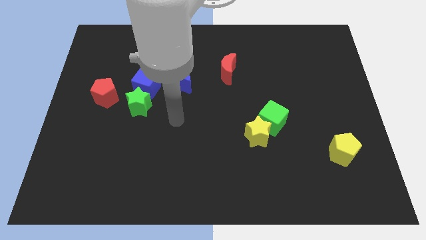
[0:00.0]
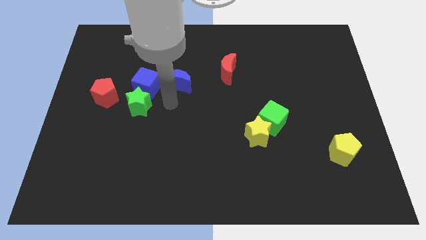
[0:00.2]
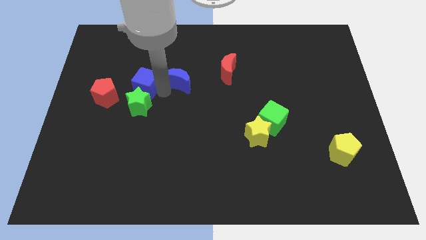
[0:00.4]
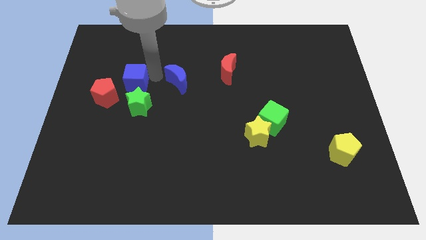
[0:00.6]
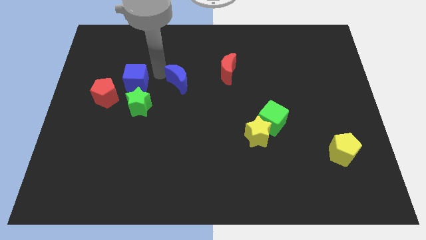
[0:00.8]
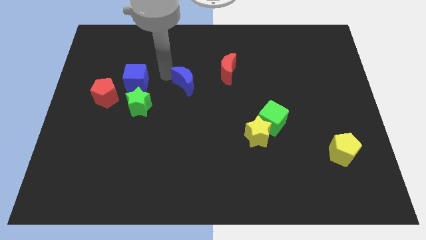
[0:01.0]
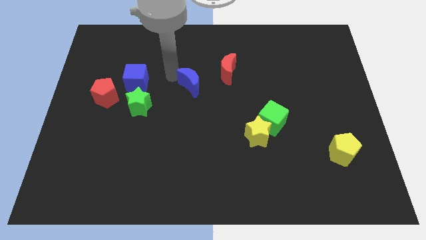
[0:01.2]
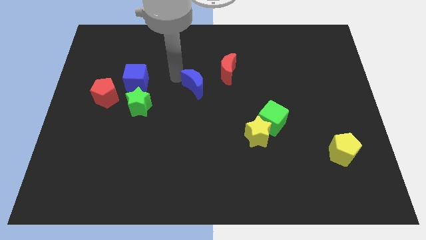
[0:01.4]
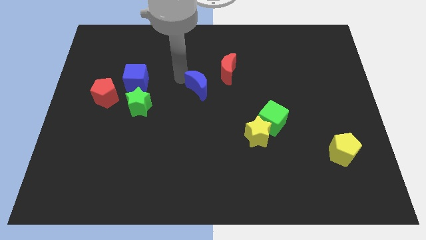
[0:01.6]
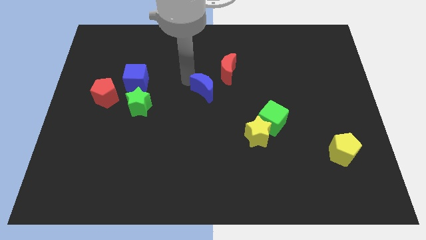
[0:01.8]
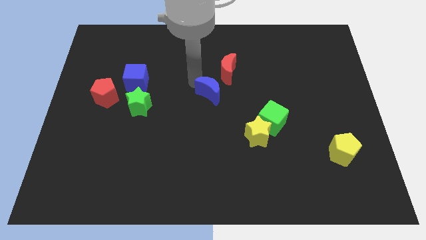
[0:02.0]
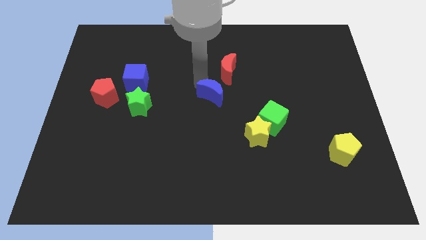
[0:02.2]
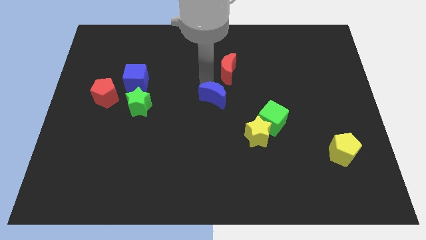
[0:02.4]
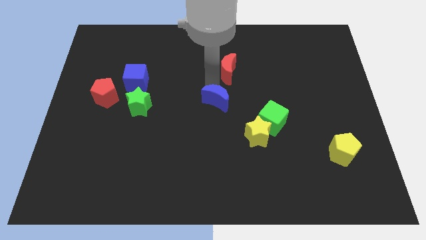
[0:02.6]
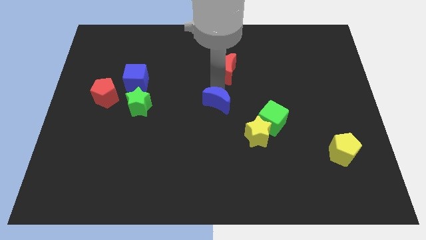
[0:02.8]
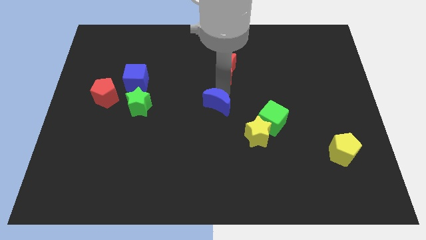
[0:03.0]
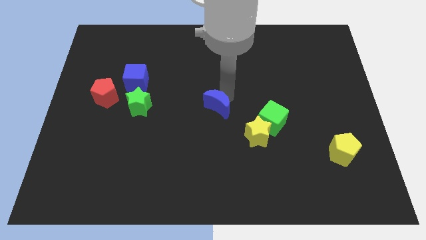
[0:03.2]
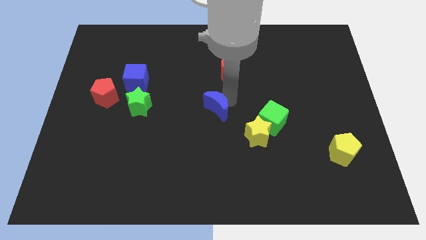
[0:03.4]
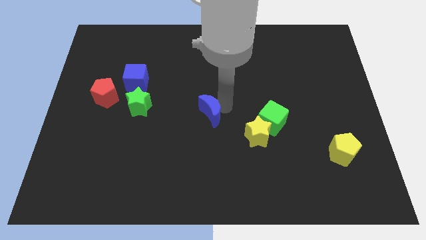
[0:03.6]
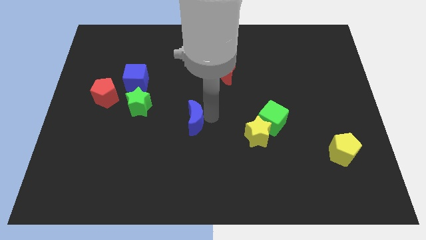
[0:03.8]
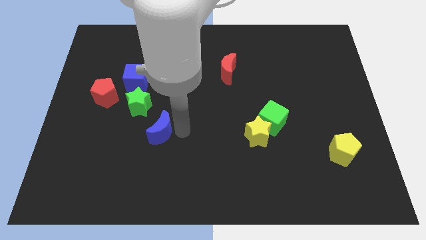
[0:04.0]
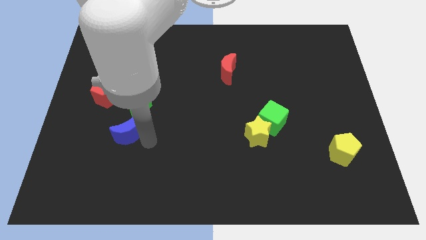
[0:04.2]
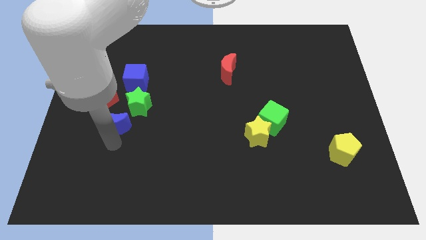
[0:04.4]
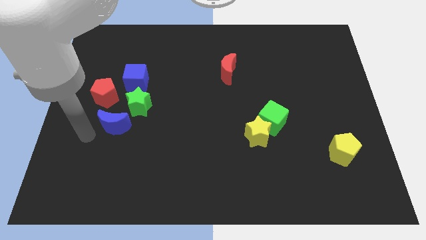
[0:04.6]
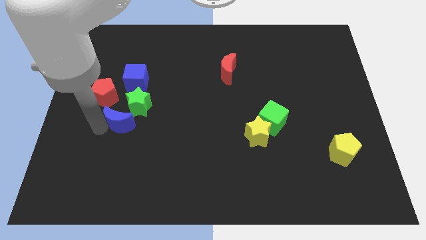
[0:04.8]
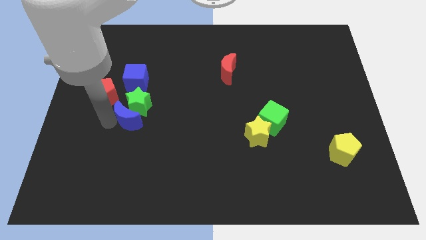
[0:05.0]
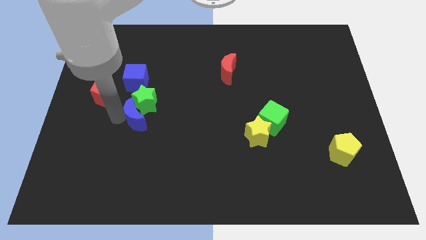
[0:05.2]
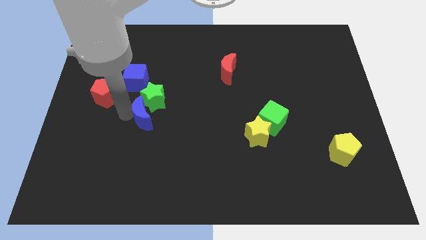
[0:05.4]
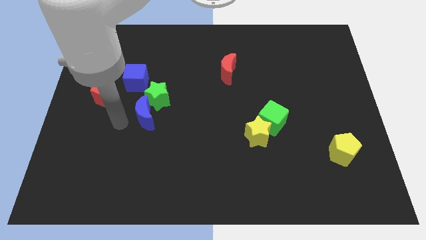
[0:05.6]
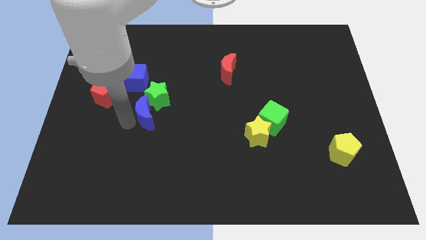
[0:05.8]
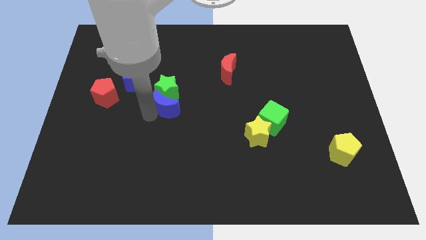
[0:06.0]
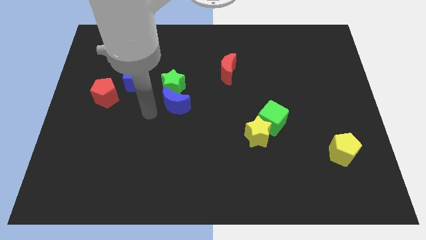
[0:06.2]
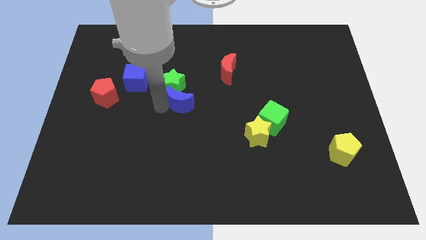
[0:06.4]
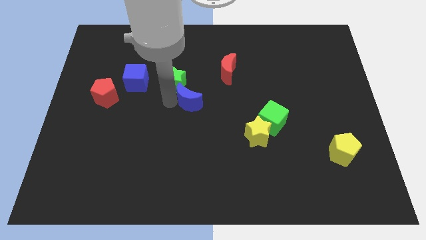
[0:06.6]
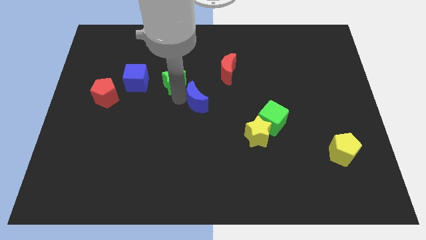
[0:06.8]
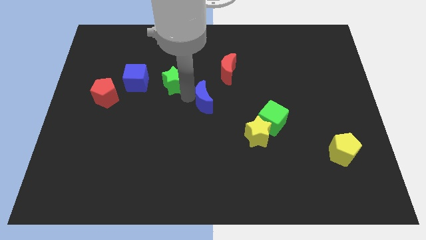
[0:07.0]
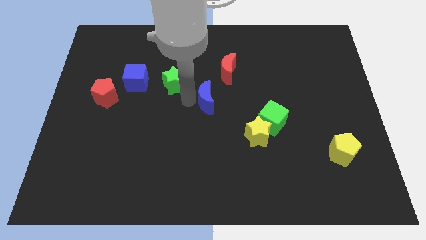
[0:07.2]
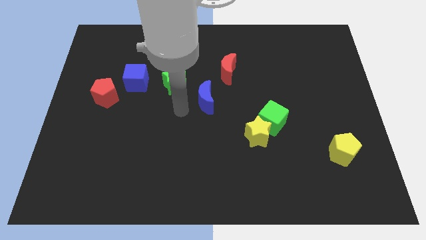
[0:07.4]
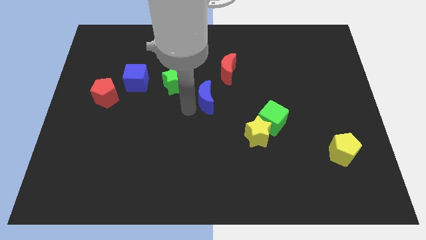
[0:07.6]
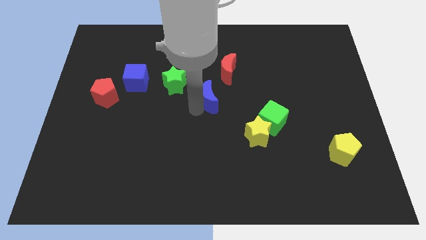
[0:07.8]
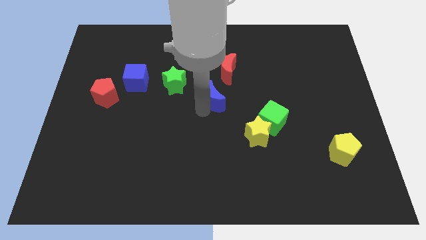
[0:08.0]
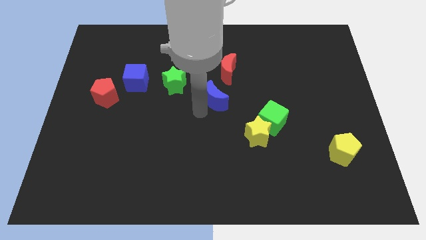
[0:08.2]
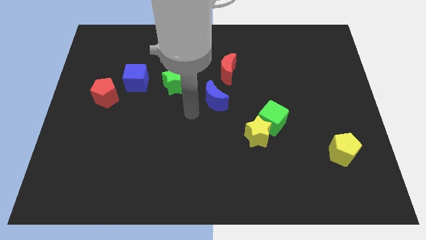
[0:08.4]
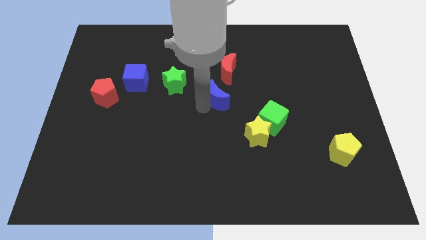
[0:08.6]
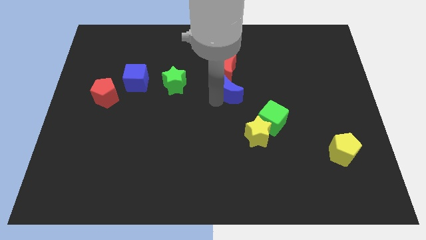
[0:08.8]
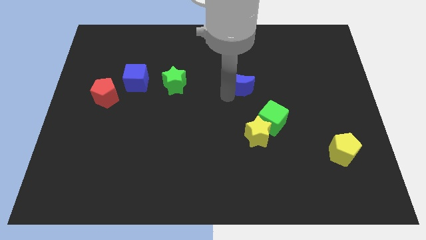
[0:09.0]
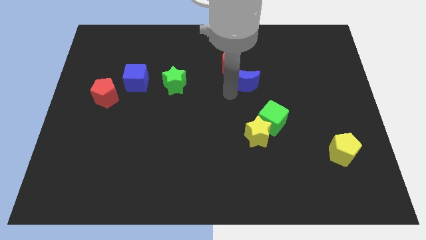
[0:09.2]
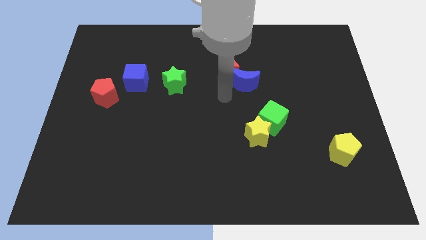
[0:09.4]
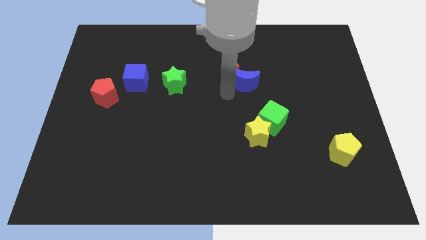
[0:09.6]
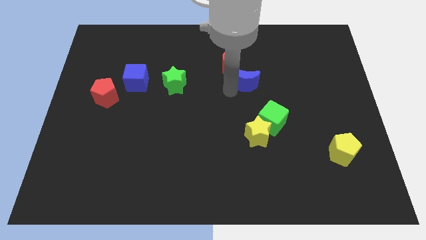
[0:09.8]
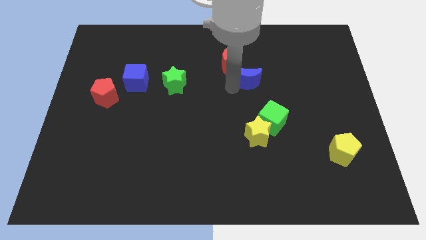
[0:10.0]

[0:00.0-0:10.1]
slide the blue moon to the right side of the red moon

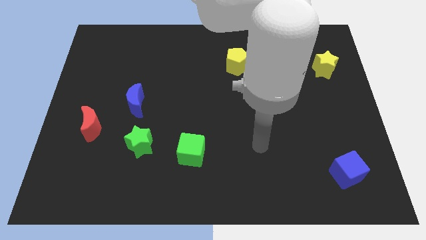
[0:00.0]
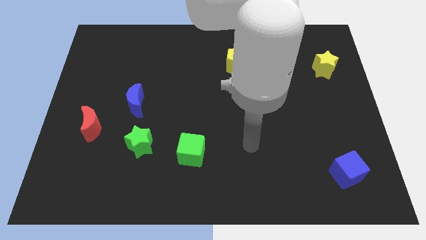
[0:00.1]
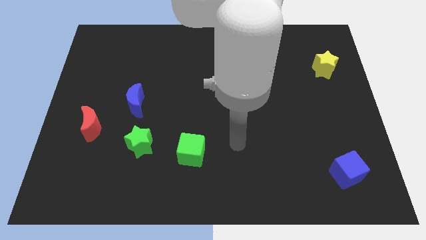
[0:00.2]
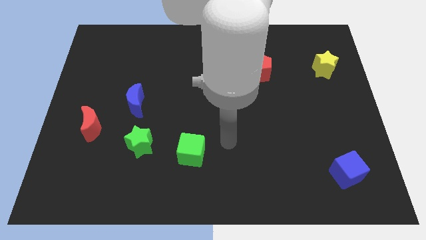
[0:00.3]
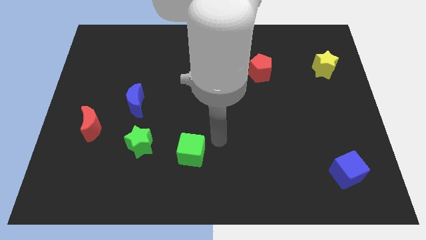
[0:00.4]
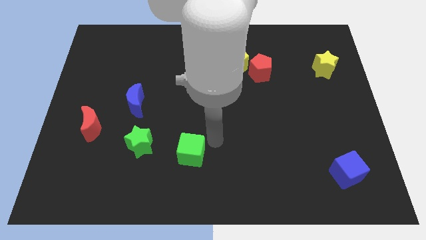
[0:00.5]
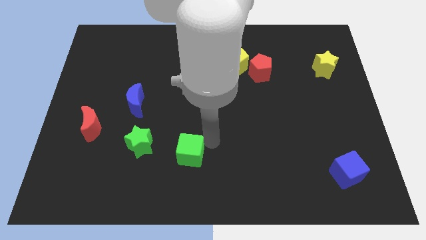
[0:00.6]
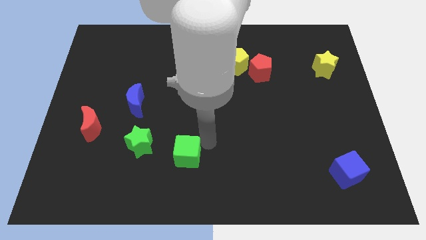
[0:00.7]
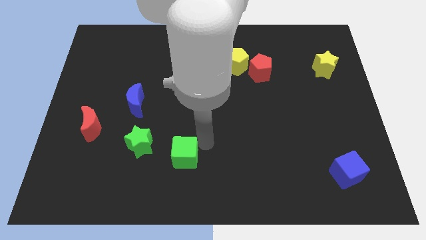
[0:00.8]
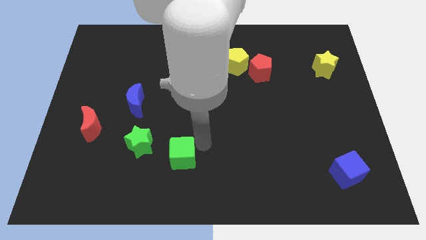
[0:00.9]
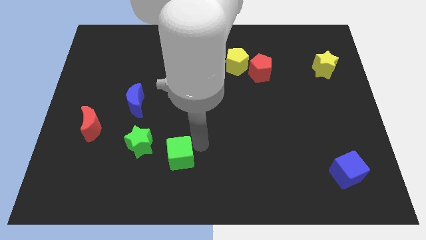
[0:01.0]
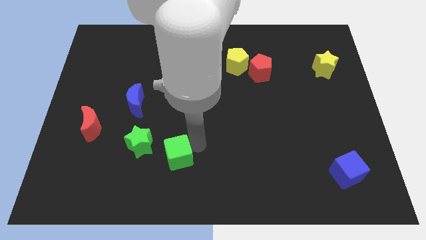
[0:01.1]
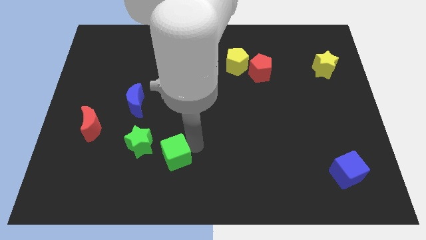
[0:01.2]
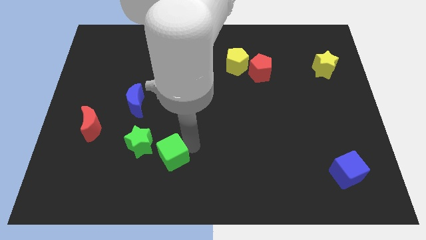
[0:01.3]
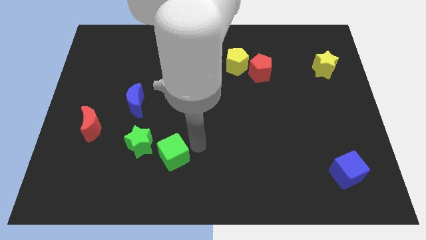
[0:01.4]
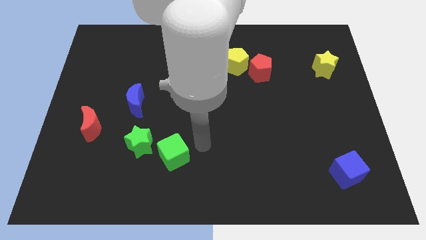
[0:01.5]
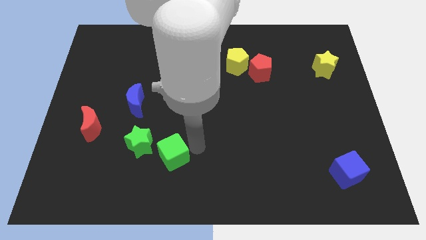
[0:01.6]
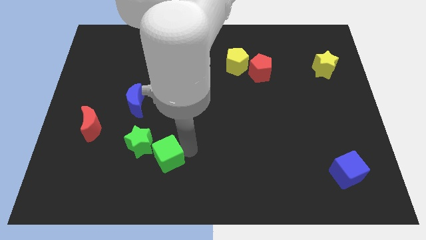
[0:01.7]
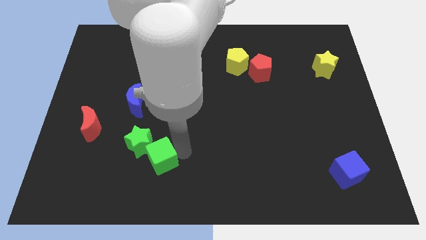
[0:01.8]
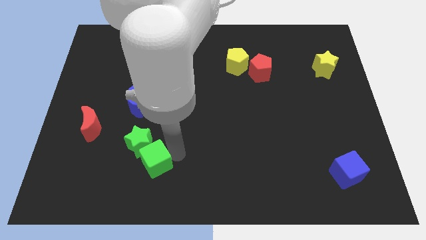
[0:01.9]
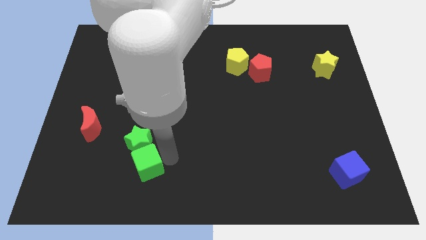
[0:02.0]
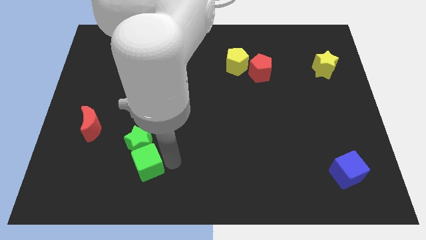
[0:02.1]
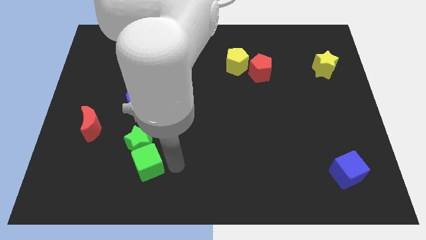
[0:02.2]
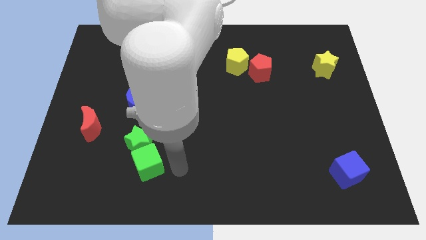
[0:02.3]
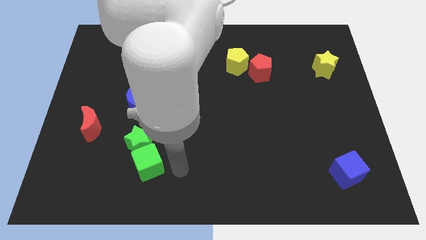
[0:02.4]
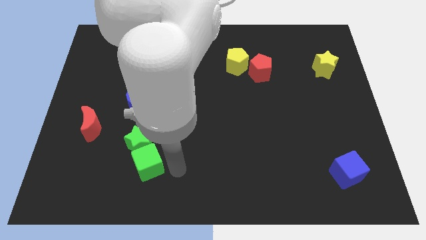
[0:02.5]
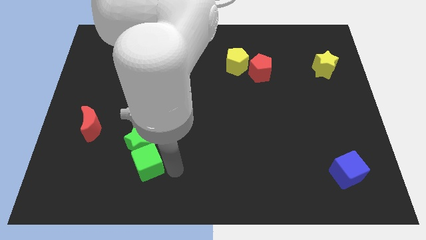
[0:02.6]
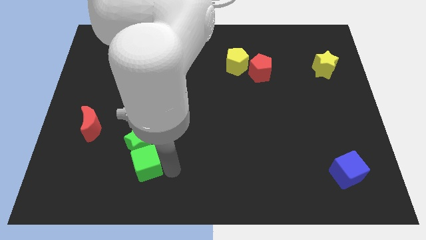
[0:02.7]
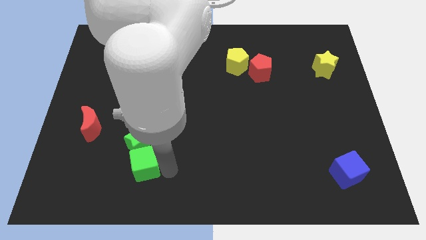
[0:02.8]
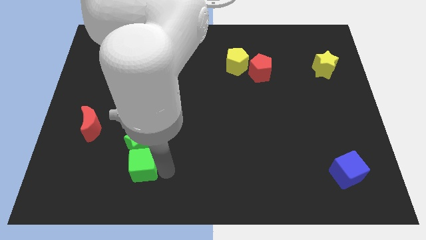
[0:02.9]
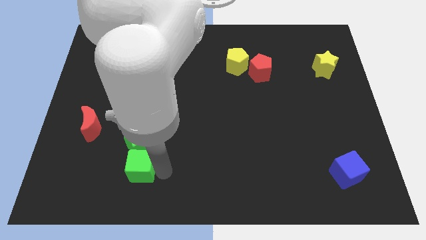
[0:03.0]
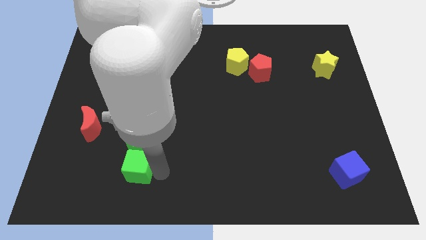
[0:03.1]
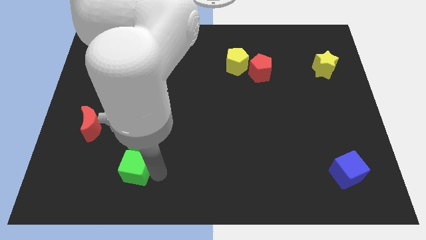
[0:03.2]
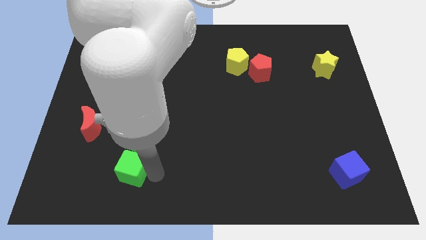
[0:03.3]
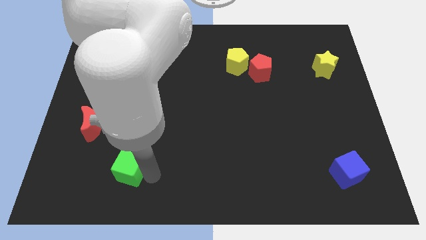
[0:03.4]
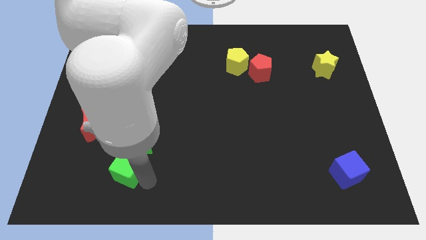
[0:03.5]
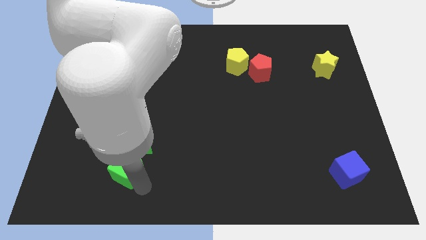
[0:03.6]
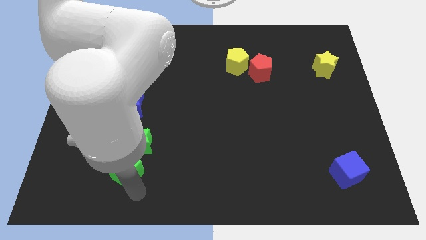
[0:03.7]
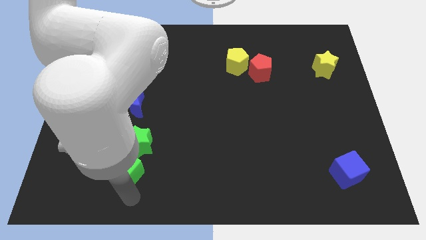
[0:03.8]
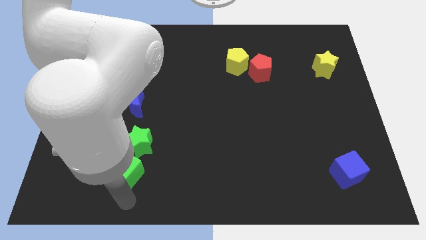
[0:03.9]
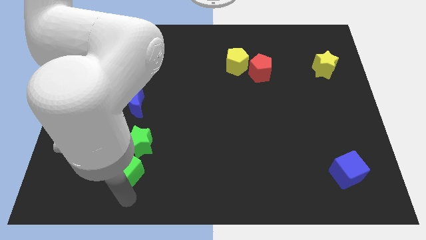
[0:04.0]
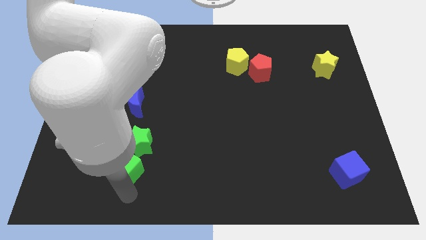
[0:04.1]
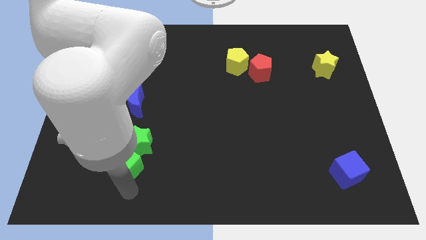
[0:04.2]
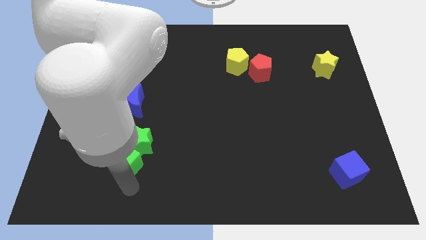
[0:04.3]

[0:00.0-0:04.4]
move the green cube to the bottom side of the blue moon
